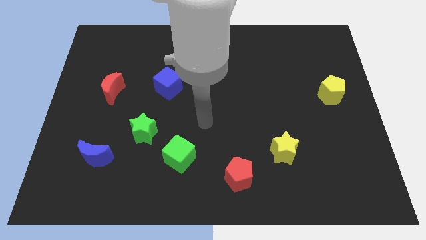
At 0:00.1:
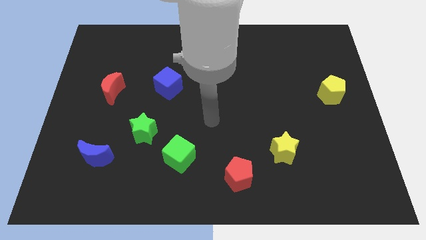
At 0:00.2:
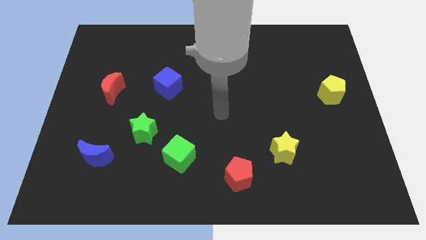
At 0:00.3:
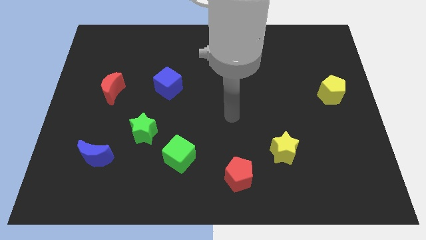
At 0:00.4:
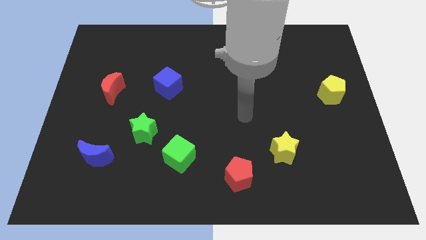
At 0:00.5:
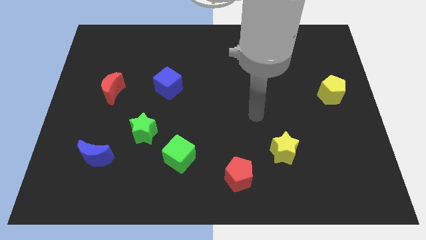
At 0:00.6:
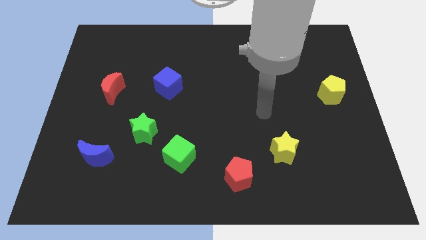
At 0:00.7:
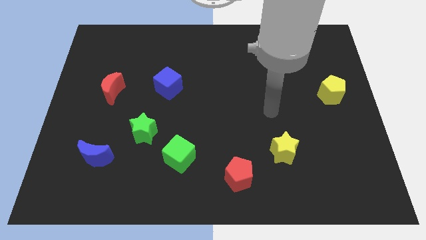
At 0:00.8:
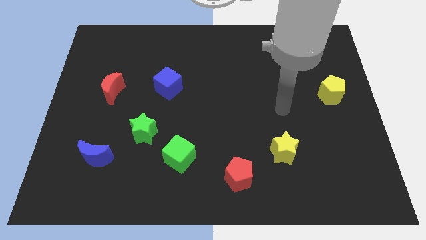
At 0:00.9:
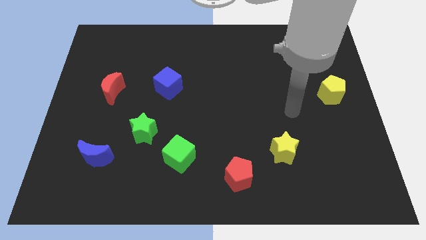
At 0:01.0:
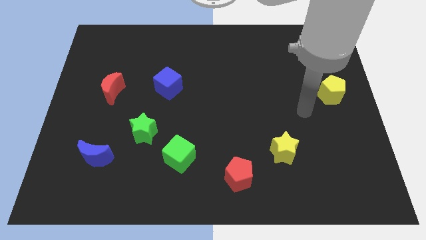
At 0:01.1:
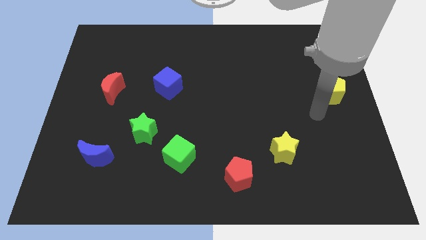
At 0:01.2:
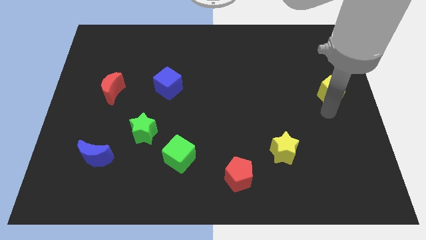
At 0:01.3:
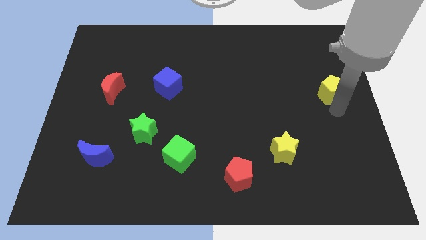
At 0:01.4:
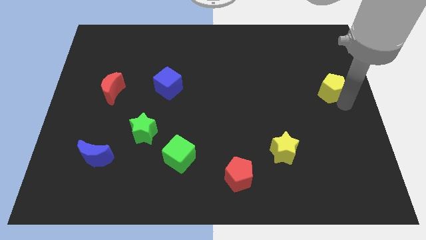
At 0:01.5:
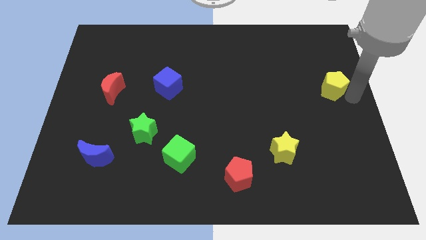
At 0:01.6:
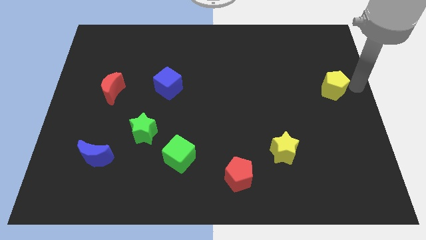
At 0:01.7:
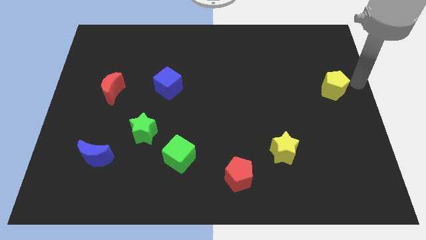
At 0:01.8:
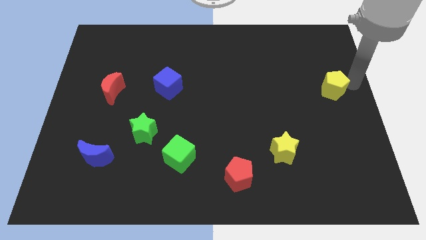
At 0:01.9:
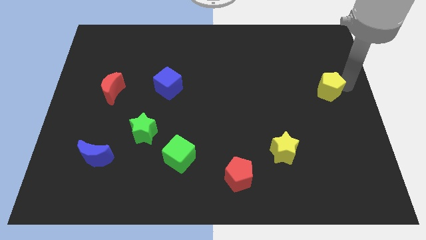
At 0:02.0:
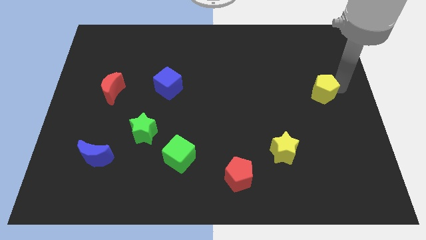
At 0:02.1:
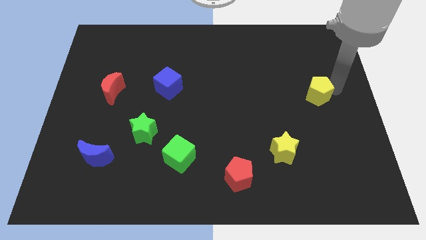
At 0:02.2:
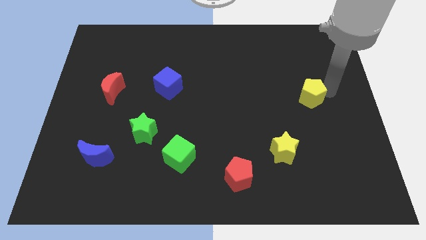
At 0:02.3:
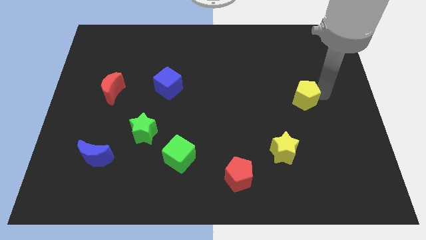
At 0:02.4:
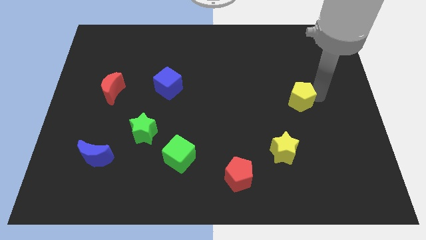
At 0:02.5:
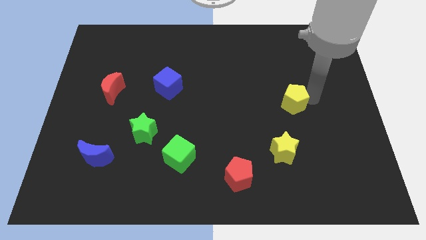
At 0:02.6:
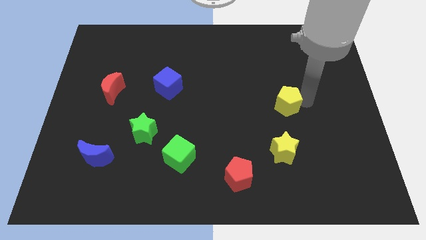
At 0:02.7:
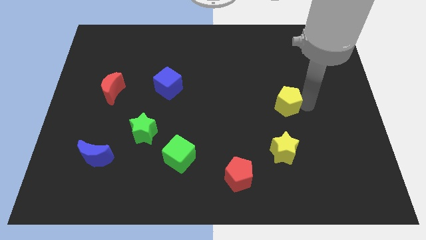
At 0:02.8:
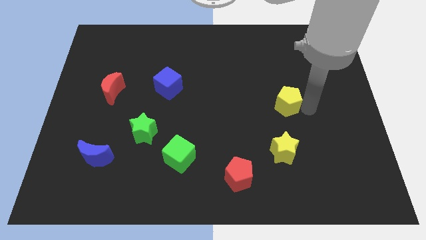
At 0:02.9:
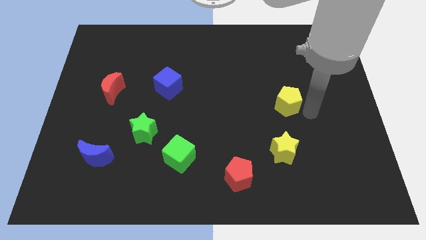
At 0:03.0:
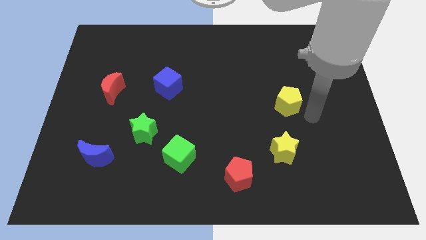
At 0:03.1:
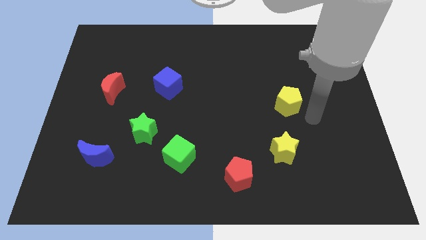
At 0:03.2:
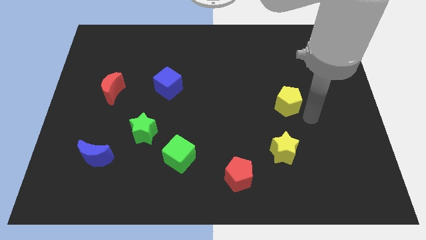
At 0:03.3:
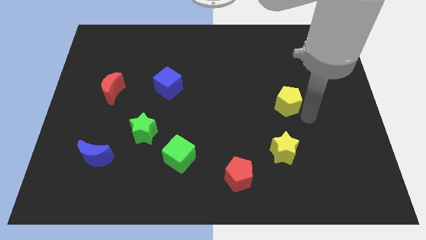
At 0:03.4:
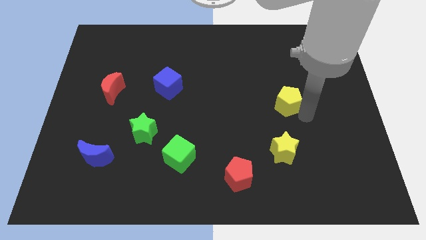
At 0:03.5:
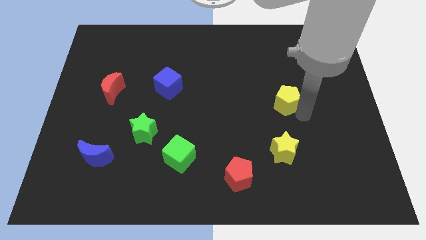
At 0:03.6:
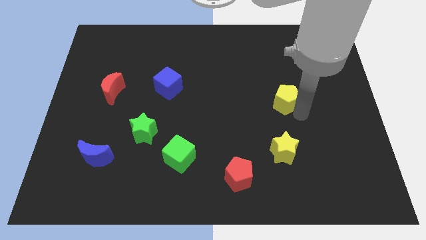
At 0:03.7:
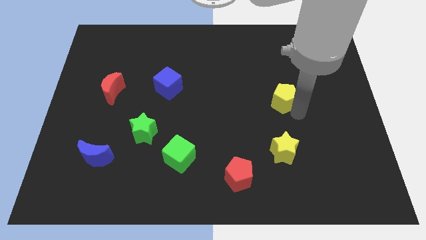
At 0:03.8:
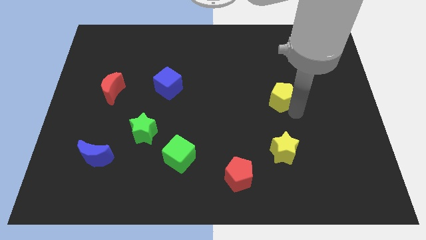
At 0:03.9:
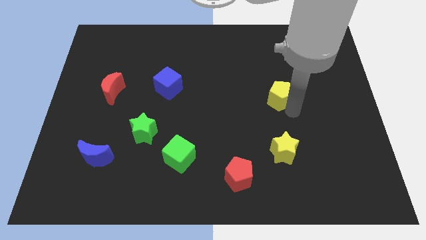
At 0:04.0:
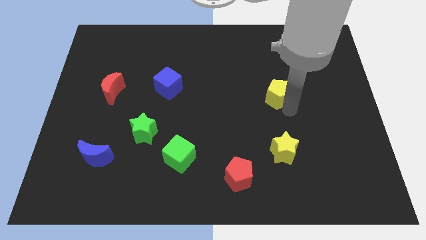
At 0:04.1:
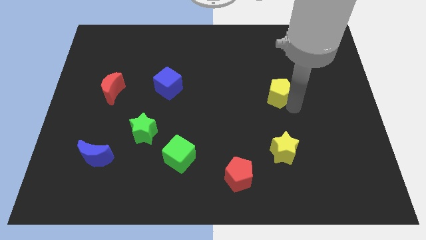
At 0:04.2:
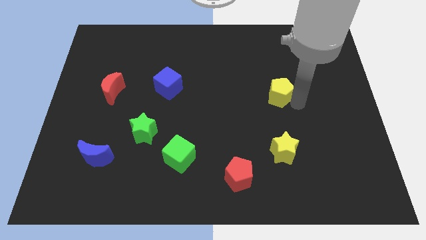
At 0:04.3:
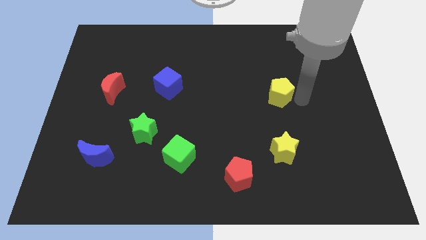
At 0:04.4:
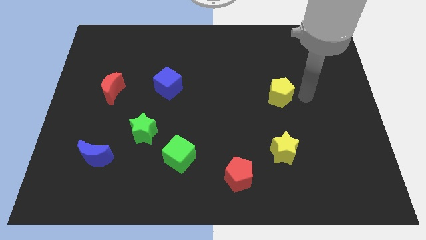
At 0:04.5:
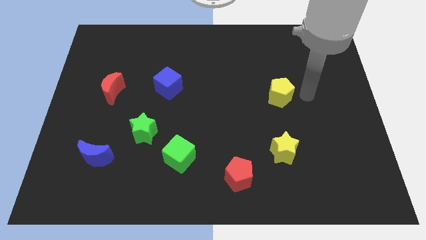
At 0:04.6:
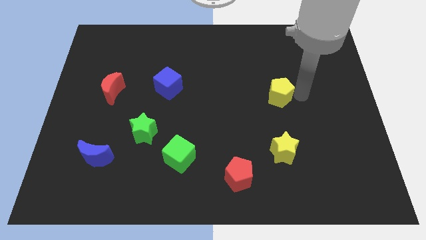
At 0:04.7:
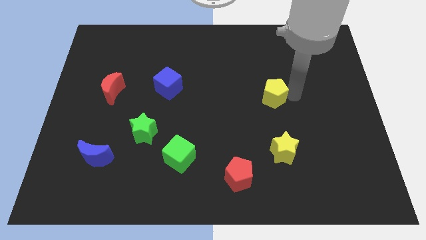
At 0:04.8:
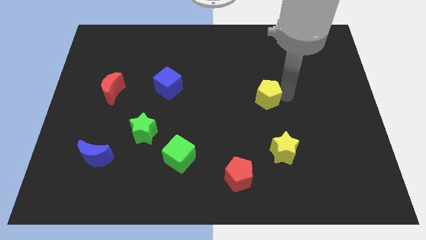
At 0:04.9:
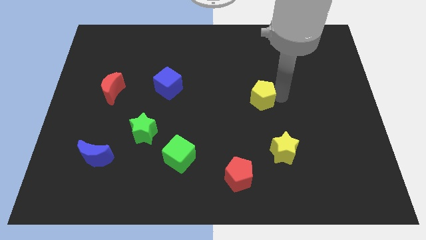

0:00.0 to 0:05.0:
put the yellow pentagon to the middle

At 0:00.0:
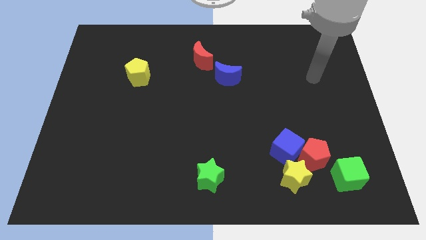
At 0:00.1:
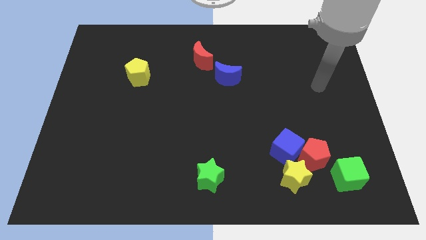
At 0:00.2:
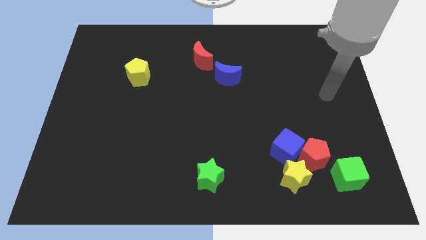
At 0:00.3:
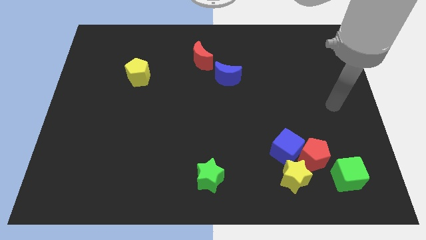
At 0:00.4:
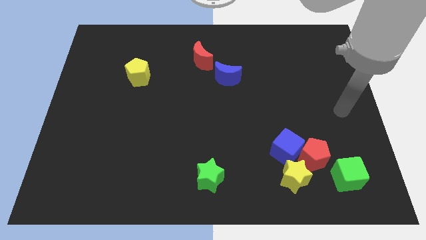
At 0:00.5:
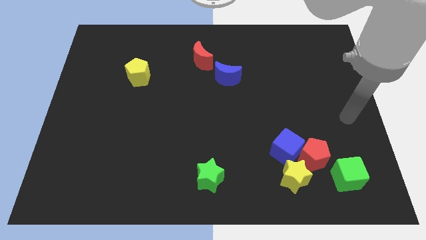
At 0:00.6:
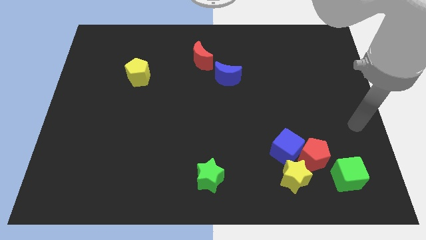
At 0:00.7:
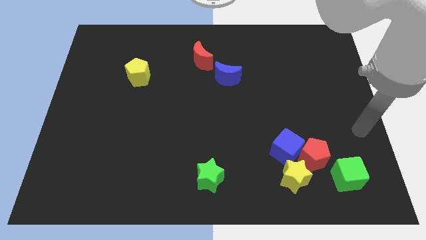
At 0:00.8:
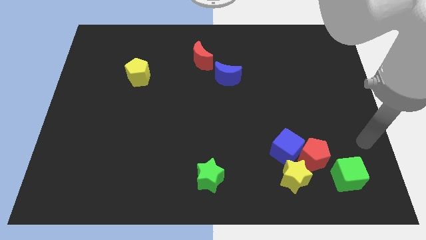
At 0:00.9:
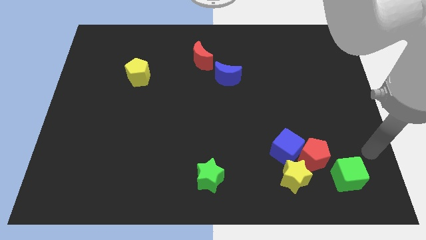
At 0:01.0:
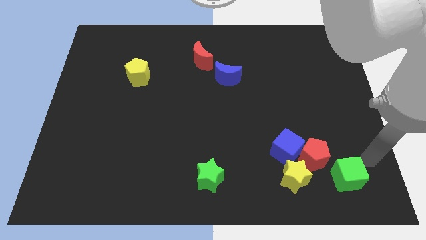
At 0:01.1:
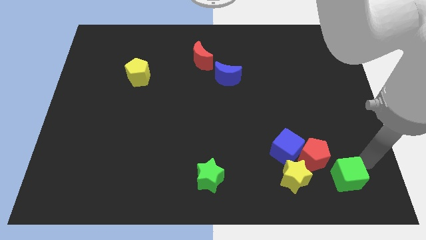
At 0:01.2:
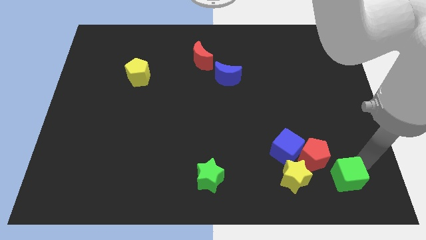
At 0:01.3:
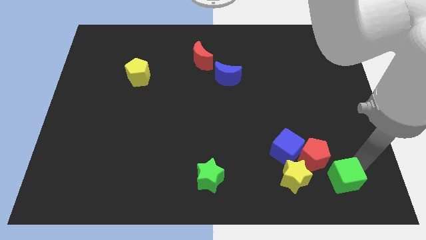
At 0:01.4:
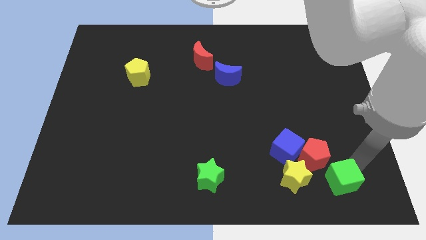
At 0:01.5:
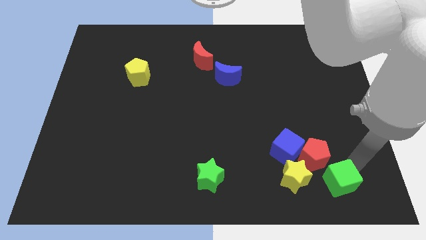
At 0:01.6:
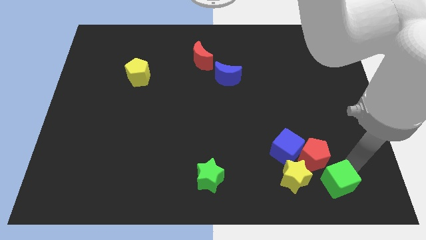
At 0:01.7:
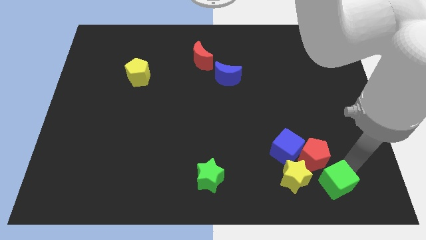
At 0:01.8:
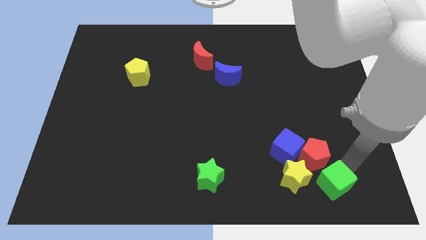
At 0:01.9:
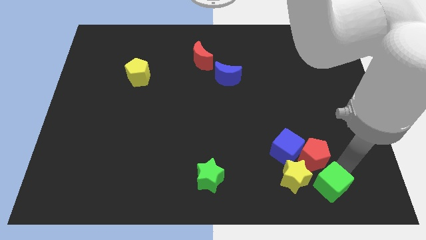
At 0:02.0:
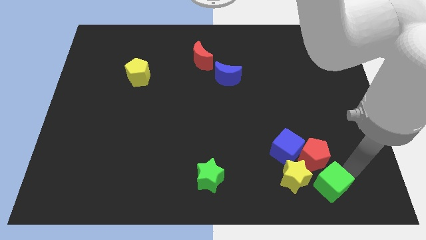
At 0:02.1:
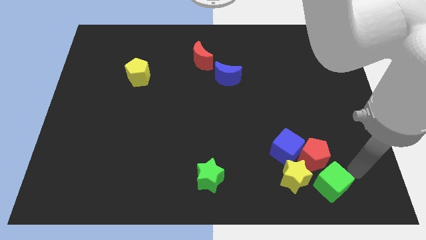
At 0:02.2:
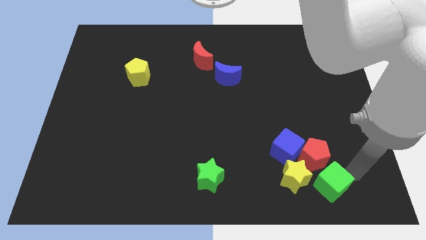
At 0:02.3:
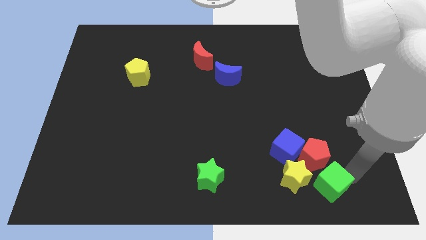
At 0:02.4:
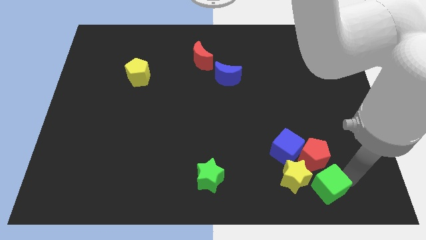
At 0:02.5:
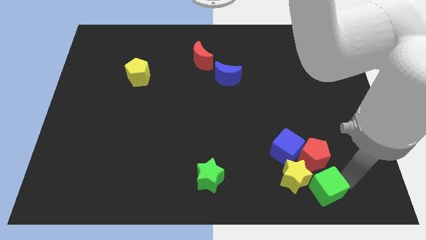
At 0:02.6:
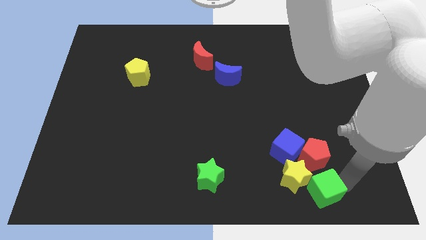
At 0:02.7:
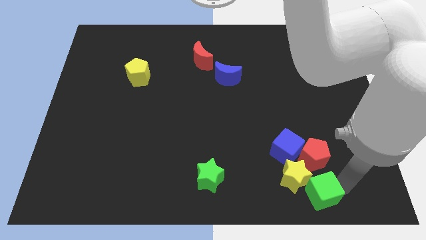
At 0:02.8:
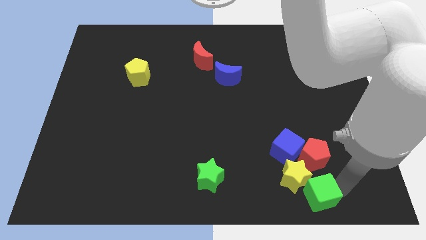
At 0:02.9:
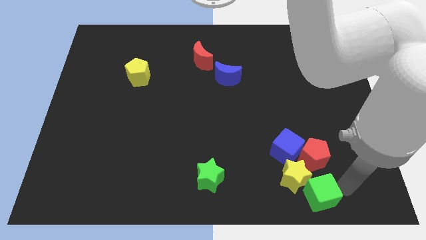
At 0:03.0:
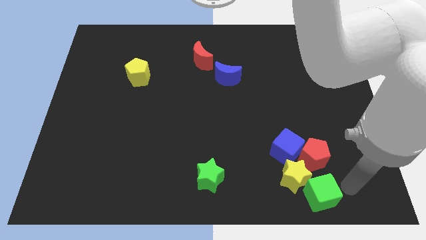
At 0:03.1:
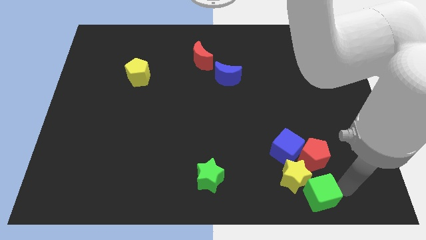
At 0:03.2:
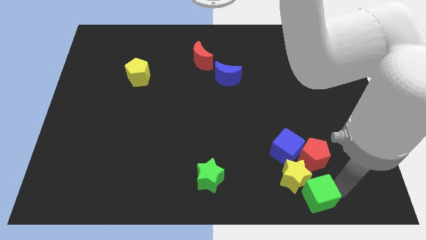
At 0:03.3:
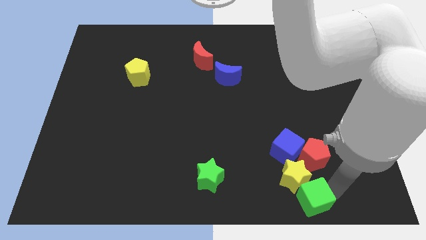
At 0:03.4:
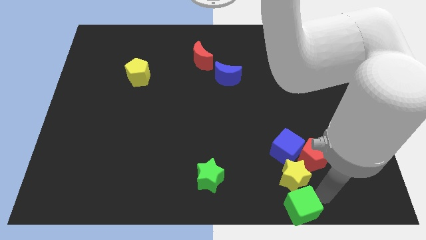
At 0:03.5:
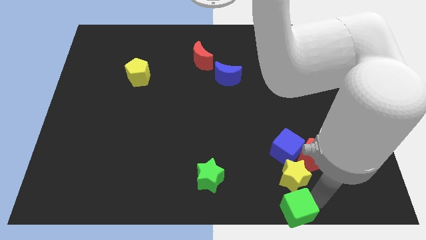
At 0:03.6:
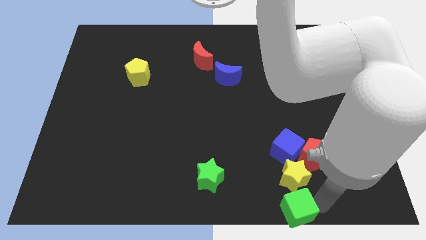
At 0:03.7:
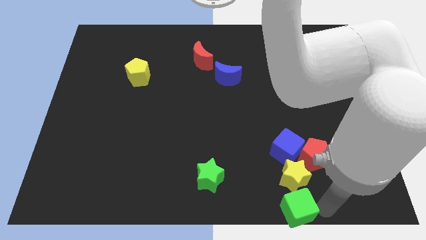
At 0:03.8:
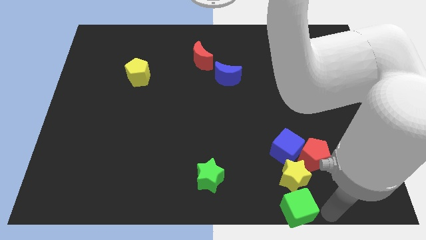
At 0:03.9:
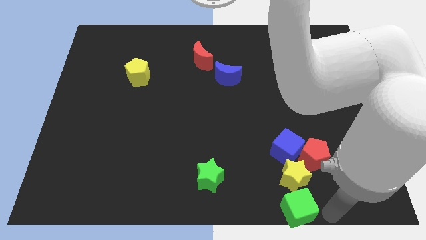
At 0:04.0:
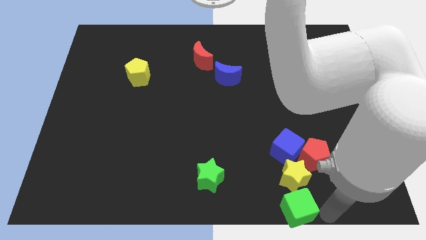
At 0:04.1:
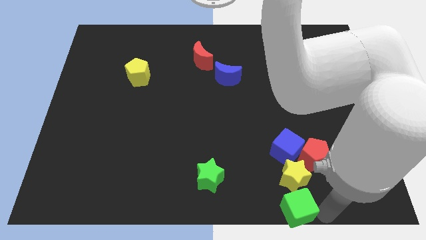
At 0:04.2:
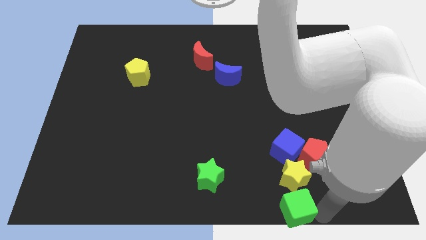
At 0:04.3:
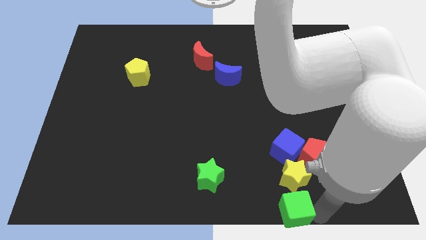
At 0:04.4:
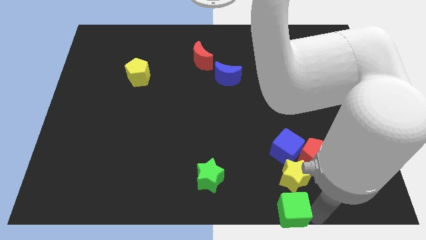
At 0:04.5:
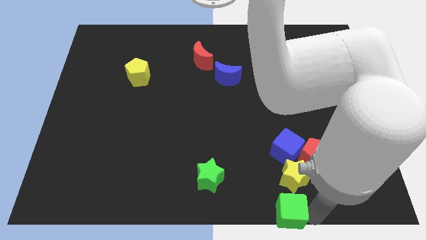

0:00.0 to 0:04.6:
move the green cube to the bottom side
